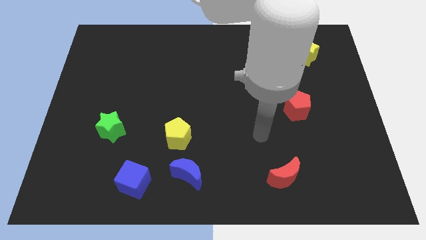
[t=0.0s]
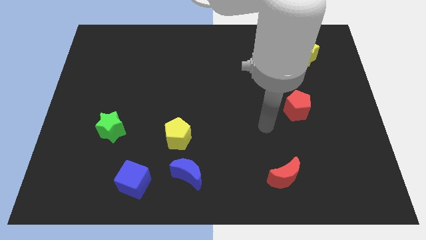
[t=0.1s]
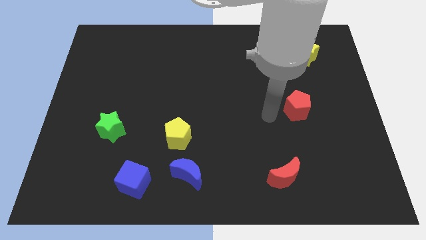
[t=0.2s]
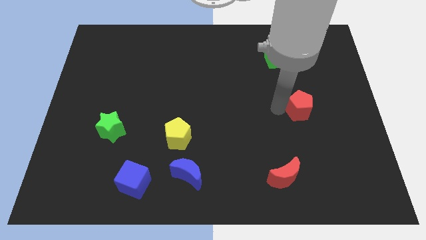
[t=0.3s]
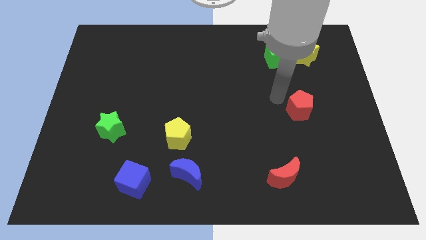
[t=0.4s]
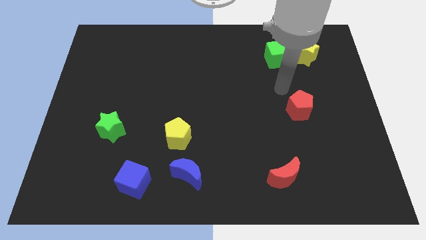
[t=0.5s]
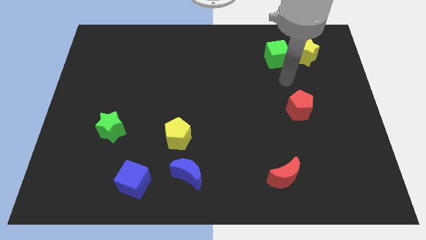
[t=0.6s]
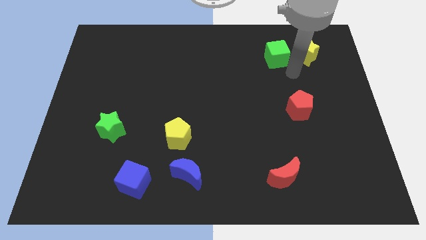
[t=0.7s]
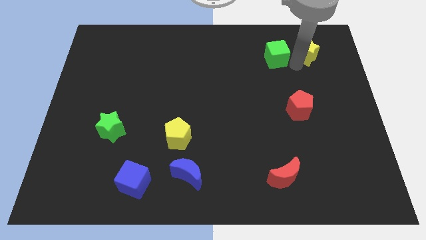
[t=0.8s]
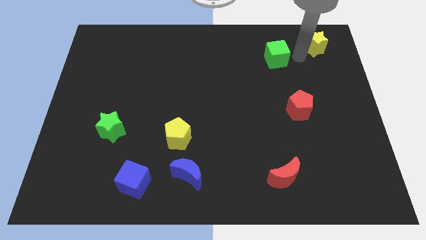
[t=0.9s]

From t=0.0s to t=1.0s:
pull the green cube apart from the yellow star

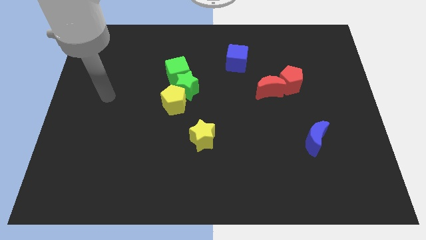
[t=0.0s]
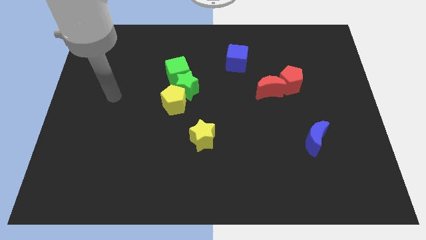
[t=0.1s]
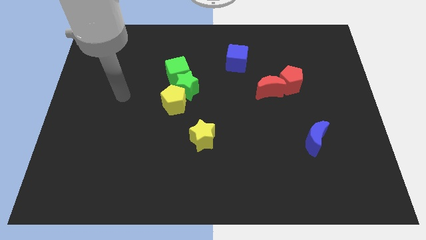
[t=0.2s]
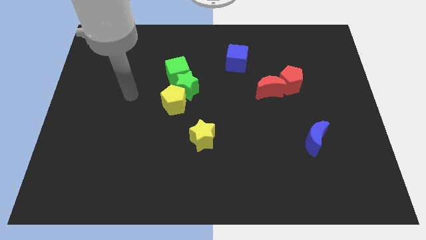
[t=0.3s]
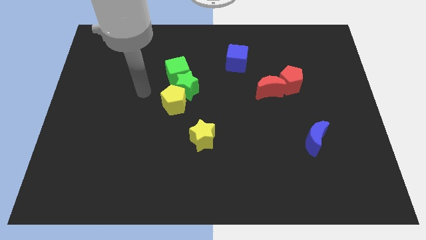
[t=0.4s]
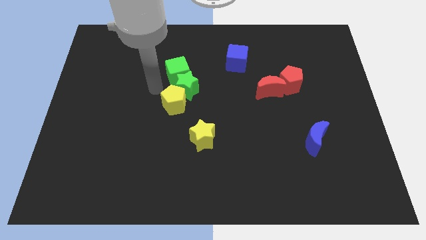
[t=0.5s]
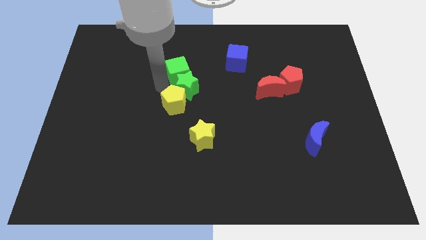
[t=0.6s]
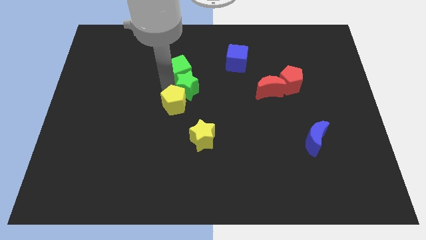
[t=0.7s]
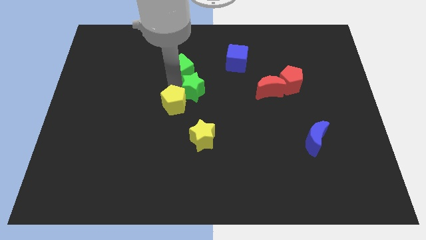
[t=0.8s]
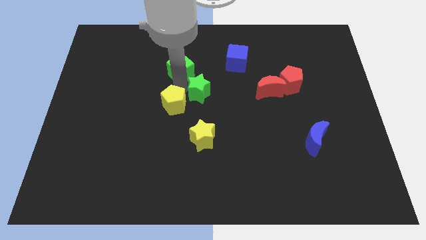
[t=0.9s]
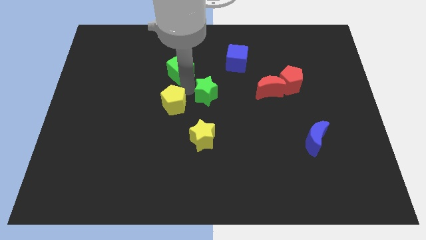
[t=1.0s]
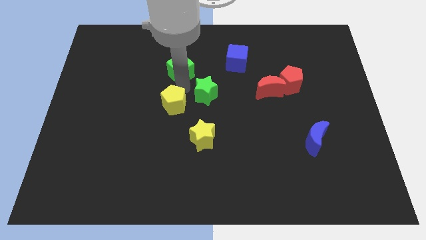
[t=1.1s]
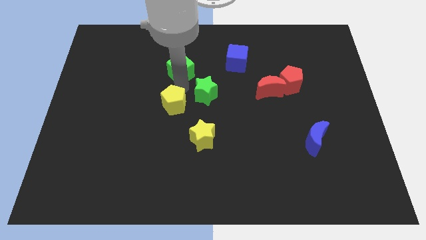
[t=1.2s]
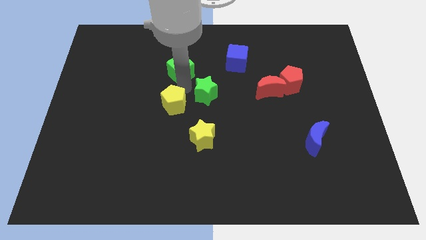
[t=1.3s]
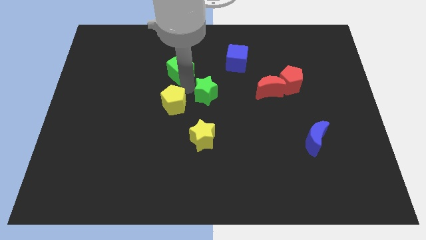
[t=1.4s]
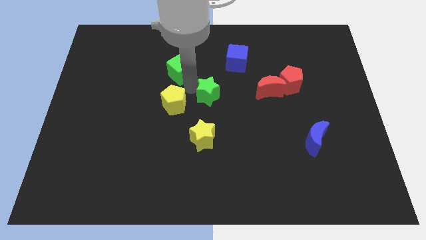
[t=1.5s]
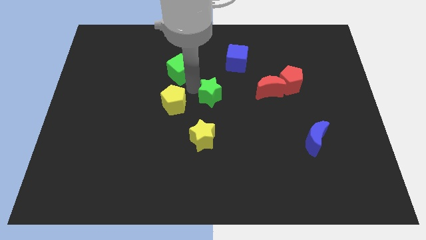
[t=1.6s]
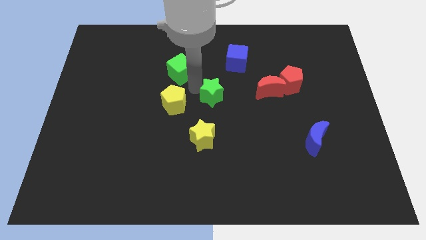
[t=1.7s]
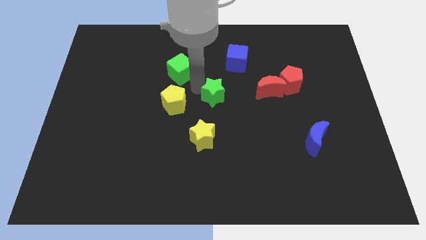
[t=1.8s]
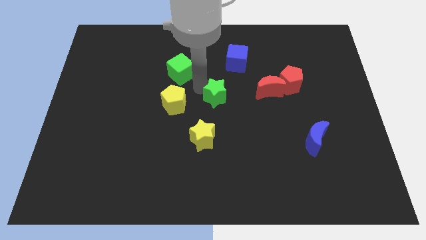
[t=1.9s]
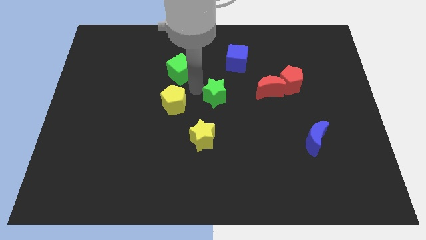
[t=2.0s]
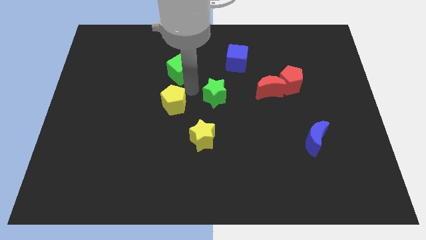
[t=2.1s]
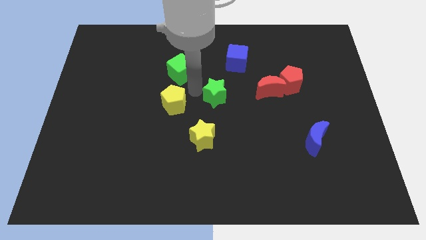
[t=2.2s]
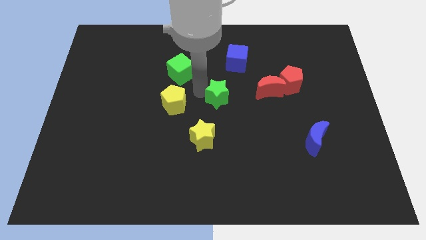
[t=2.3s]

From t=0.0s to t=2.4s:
move the green star away from the green cube and yellow pentagon

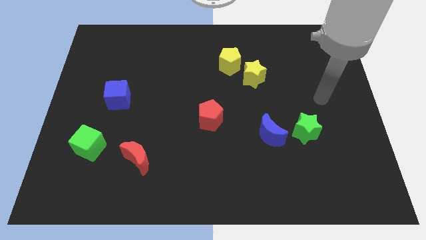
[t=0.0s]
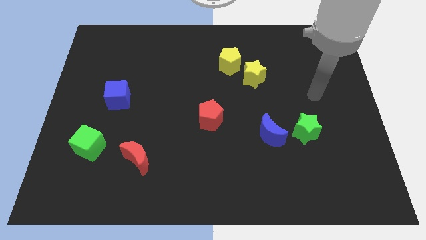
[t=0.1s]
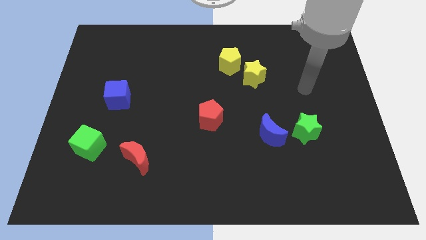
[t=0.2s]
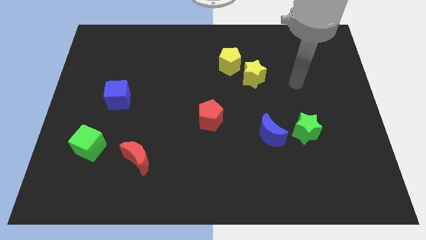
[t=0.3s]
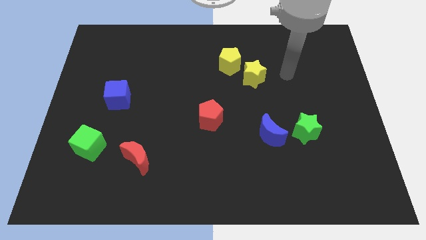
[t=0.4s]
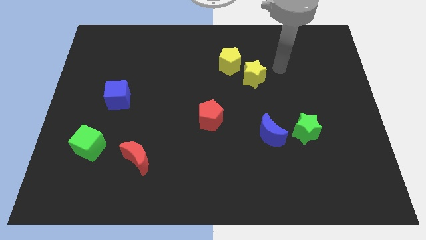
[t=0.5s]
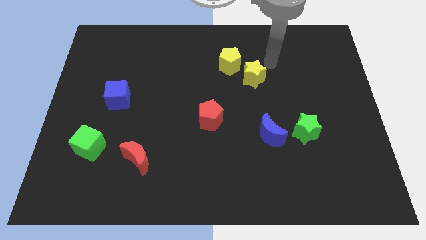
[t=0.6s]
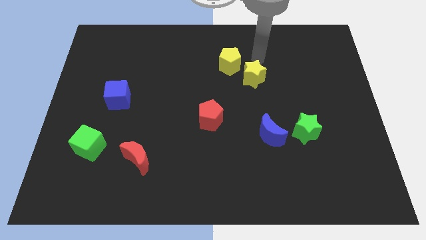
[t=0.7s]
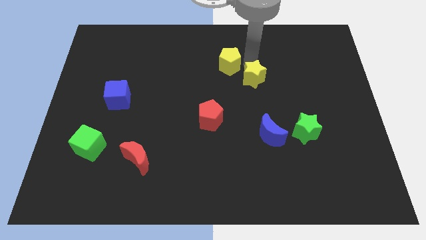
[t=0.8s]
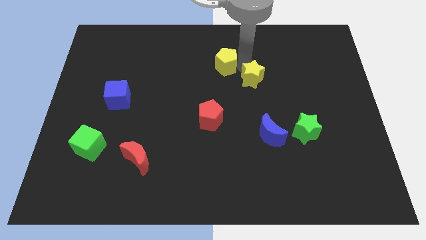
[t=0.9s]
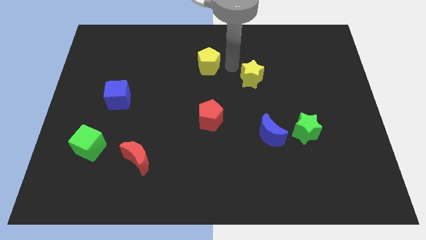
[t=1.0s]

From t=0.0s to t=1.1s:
pull the yellow star apart from the yellow pentagon

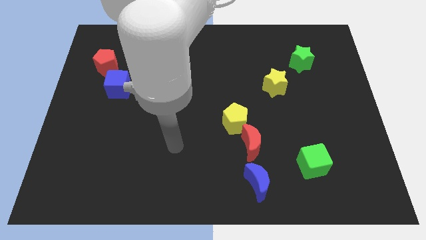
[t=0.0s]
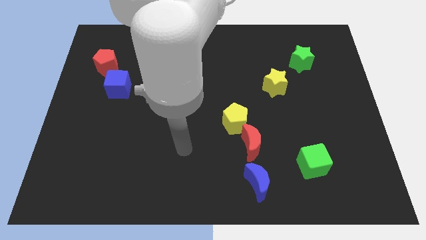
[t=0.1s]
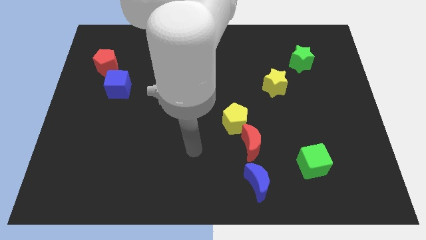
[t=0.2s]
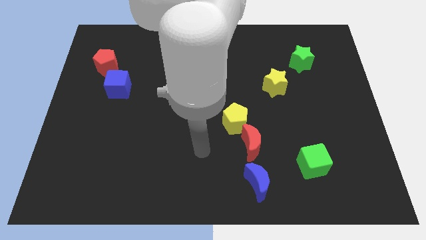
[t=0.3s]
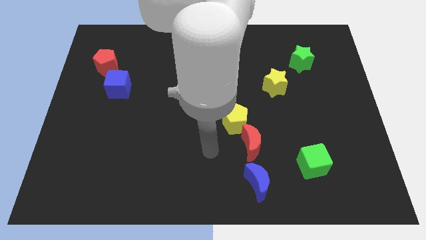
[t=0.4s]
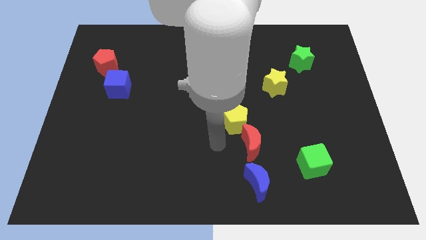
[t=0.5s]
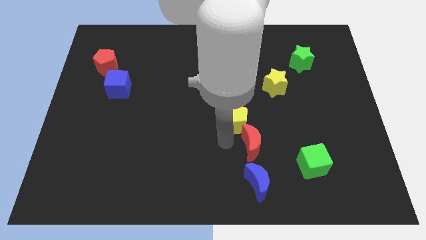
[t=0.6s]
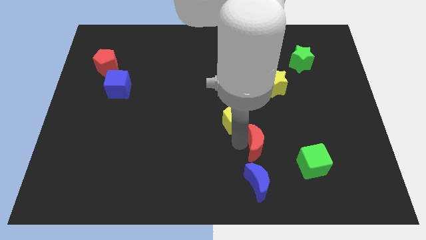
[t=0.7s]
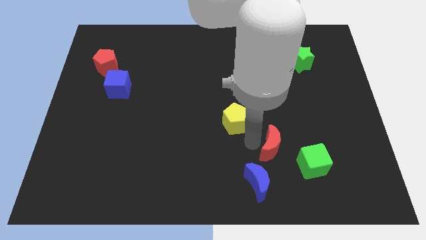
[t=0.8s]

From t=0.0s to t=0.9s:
separate the yellow pentagon from the red moon

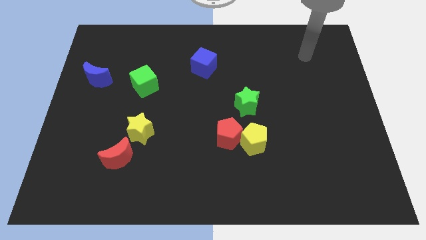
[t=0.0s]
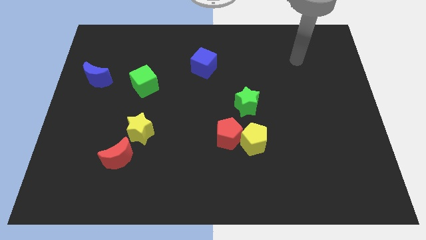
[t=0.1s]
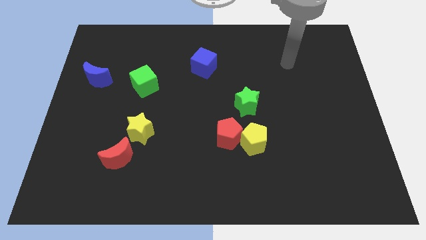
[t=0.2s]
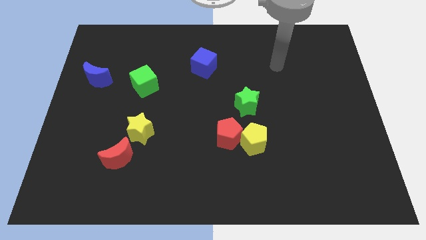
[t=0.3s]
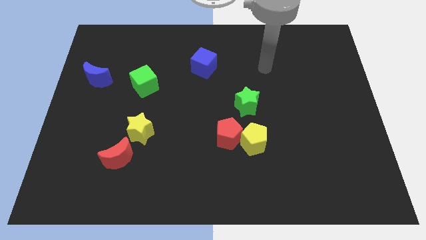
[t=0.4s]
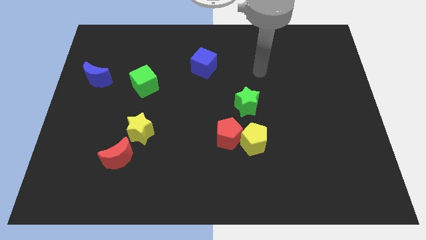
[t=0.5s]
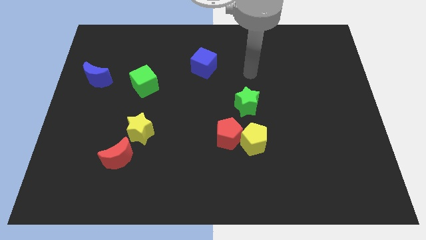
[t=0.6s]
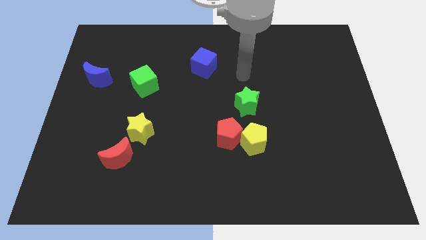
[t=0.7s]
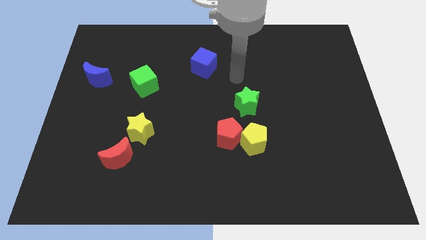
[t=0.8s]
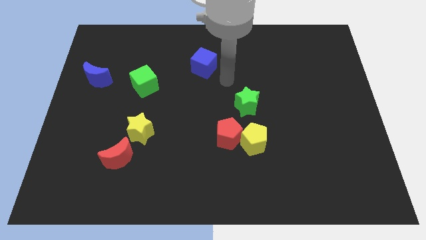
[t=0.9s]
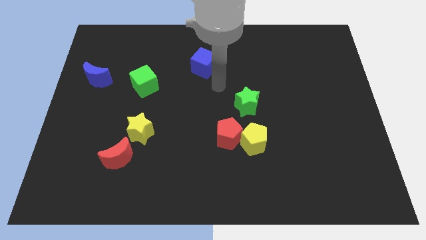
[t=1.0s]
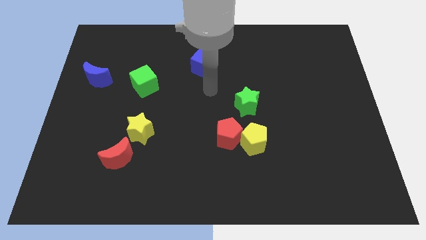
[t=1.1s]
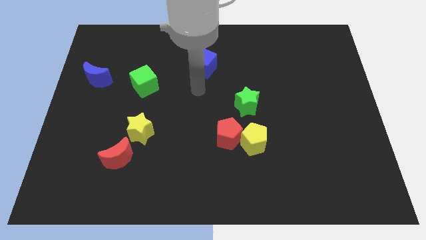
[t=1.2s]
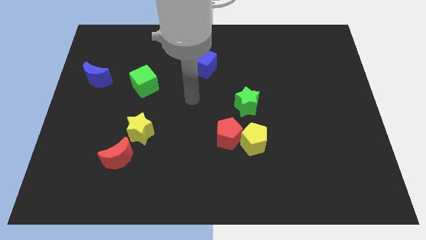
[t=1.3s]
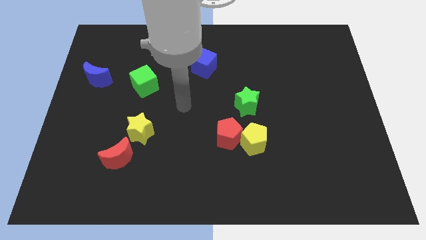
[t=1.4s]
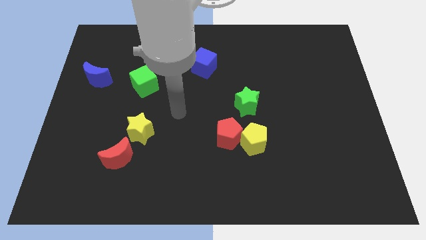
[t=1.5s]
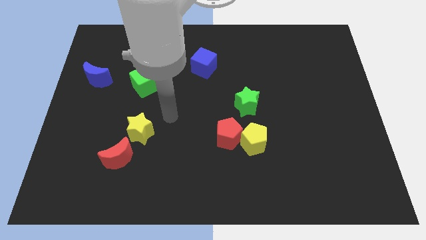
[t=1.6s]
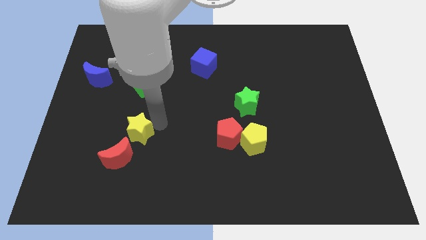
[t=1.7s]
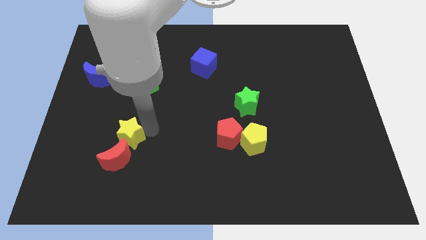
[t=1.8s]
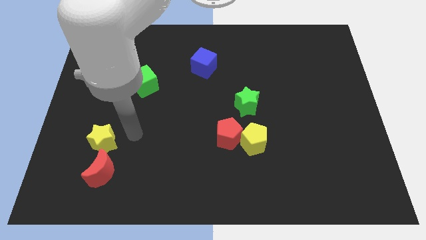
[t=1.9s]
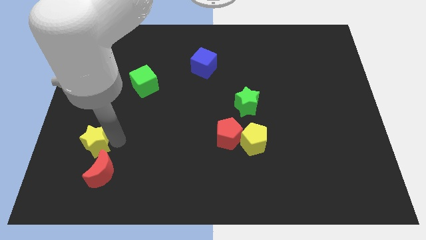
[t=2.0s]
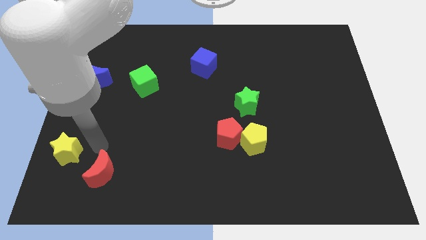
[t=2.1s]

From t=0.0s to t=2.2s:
pull the red moon apart from the yellow star

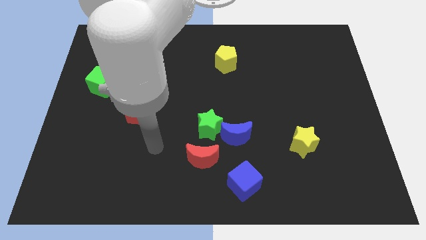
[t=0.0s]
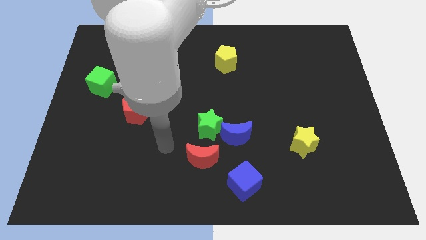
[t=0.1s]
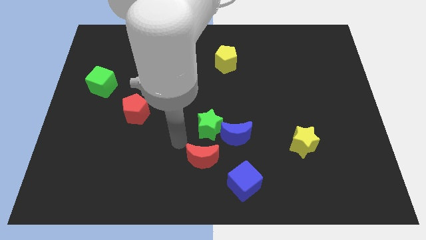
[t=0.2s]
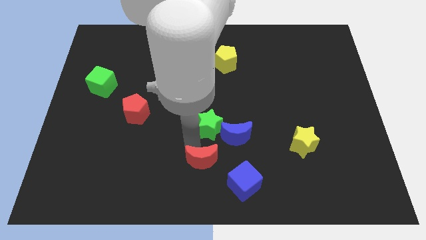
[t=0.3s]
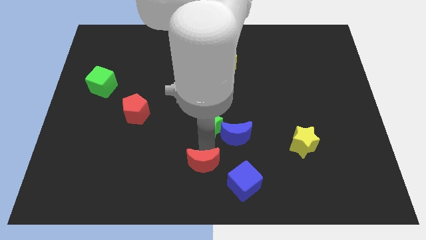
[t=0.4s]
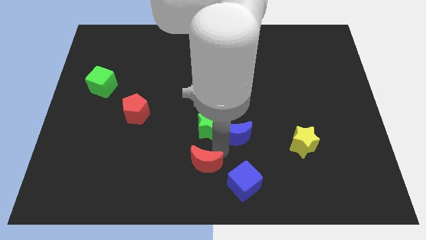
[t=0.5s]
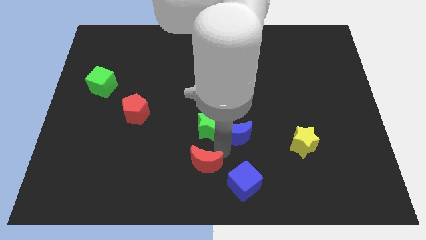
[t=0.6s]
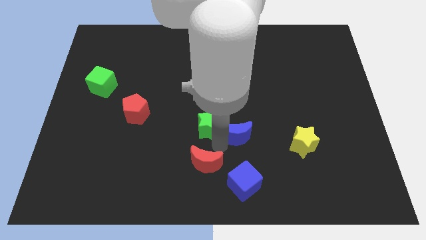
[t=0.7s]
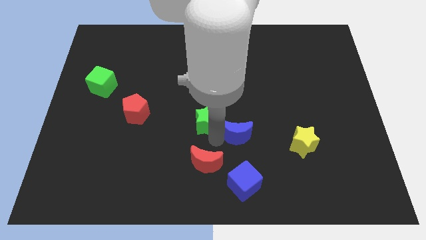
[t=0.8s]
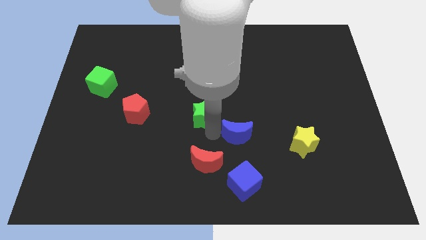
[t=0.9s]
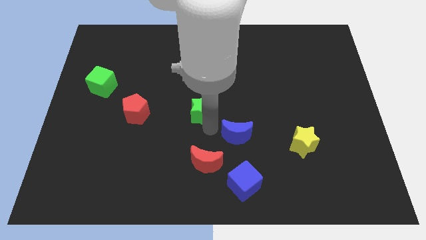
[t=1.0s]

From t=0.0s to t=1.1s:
pull the green star apart from the blue moon and red moon

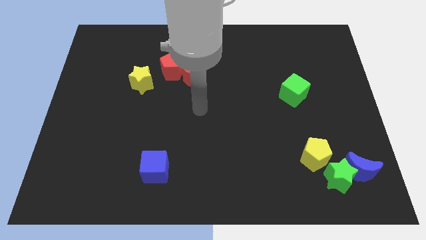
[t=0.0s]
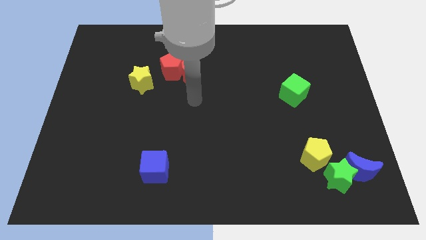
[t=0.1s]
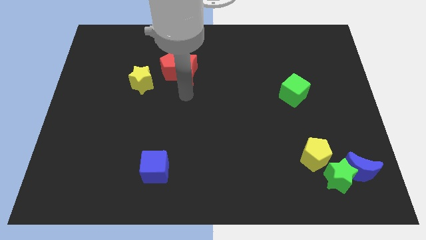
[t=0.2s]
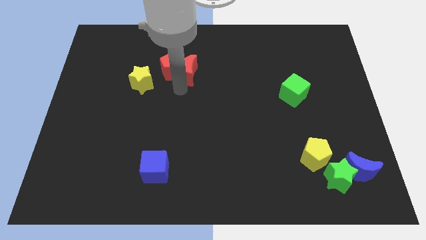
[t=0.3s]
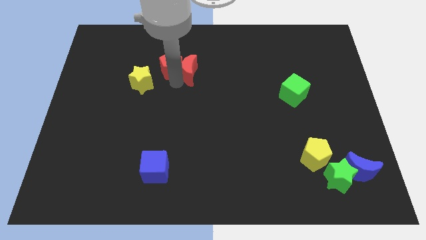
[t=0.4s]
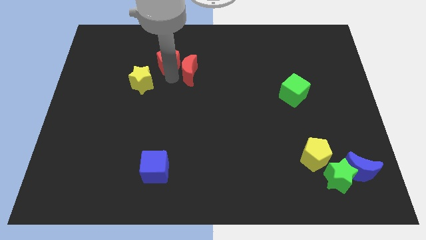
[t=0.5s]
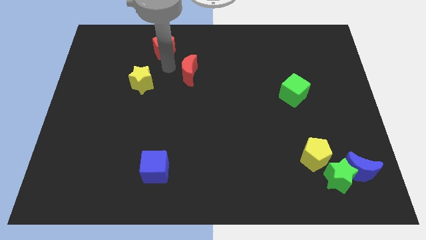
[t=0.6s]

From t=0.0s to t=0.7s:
separate the red moon from the red pentagon
